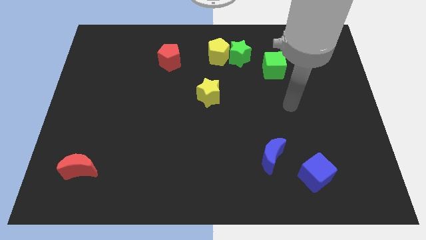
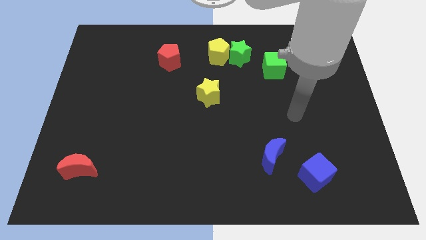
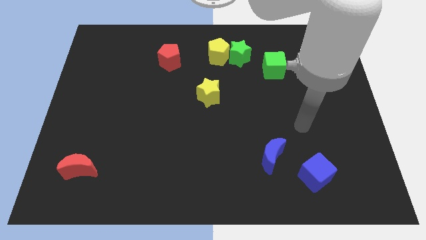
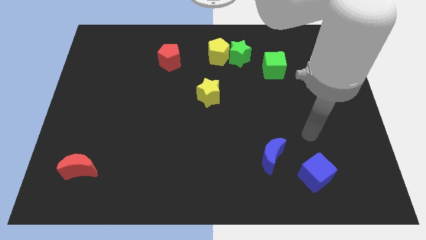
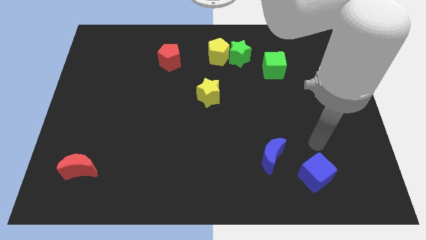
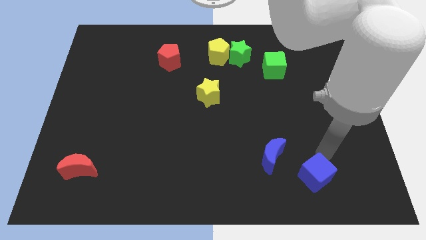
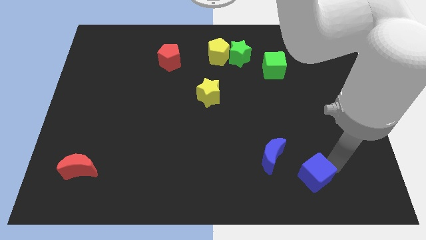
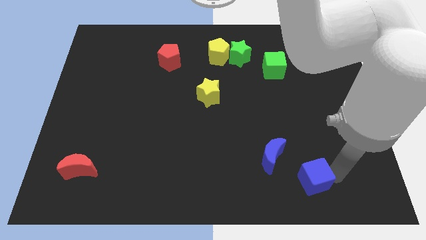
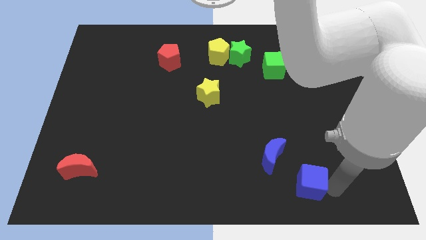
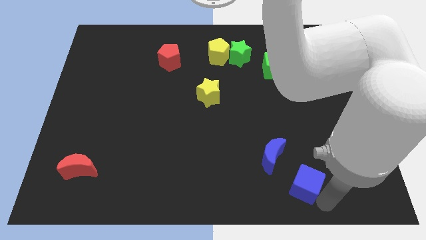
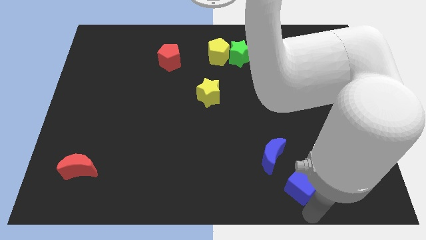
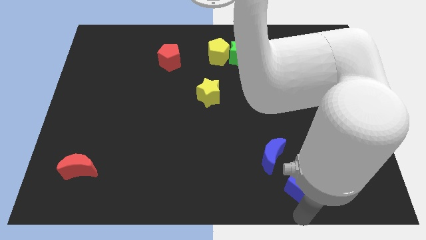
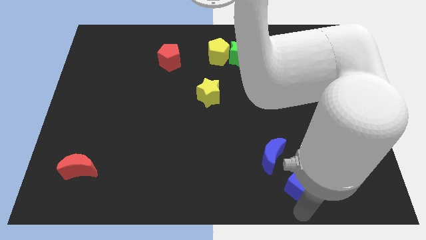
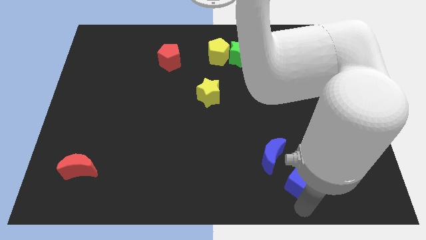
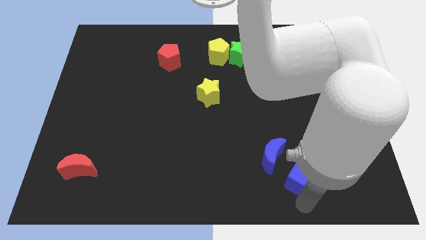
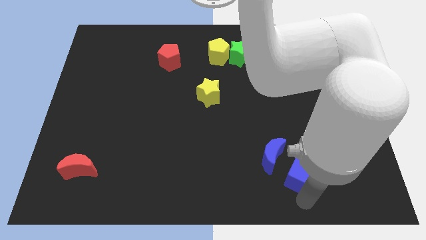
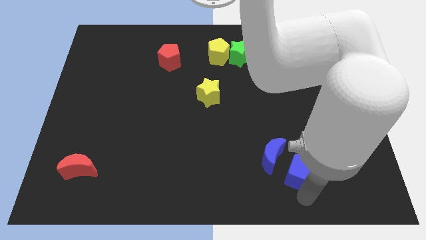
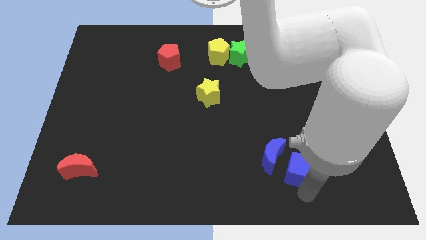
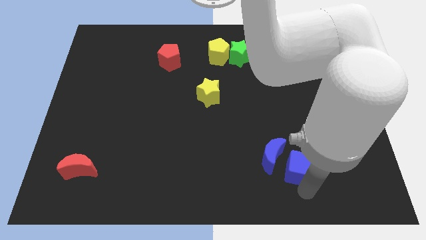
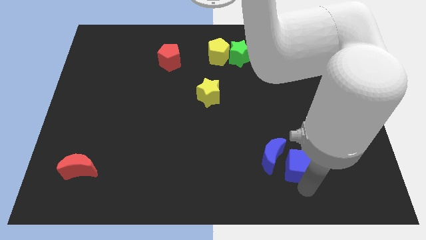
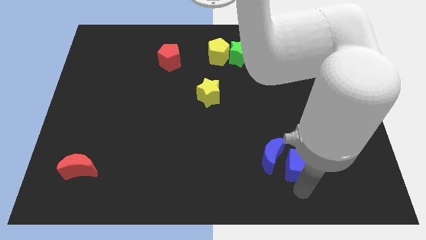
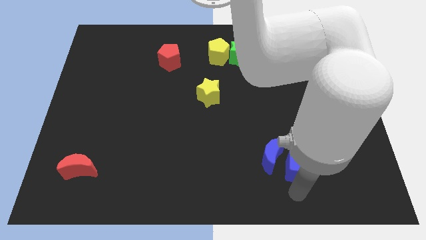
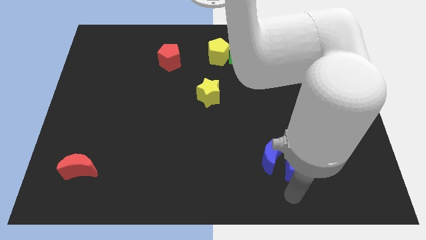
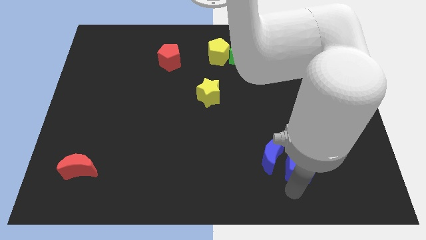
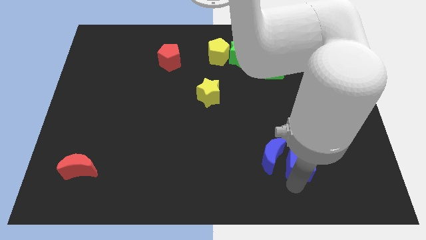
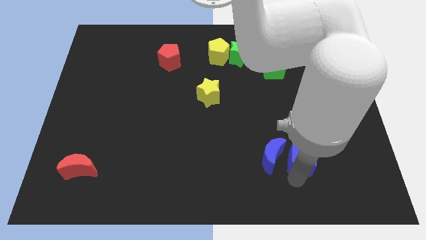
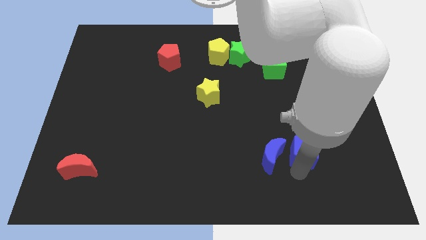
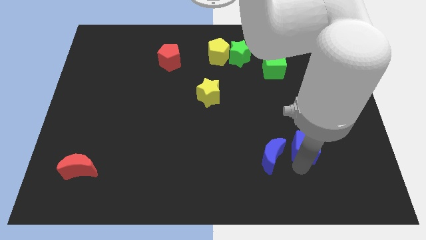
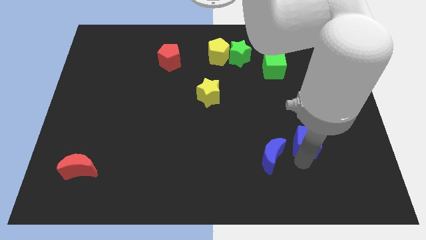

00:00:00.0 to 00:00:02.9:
push the blue cube upwards a bit

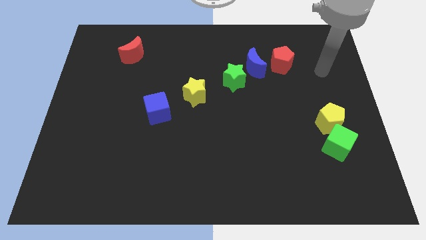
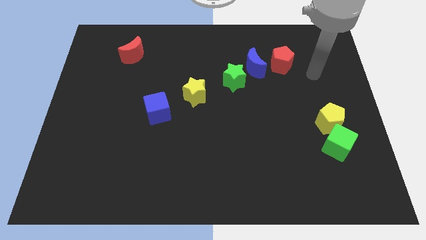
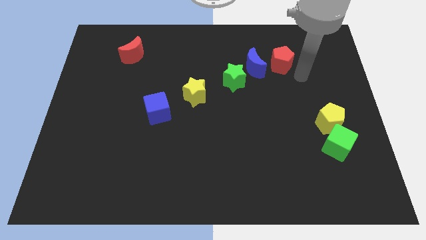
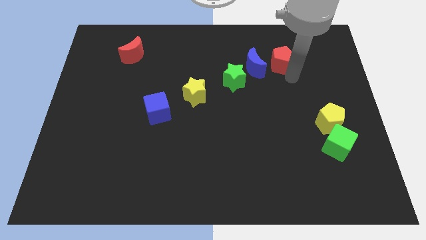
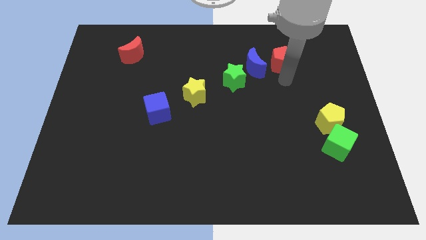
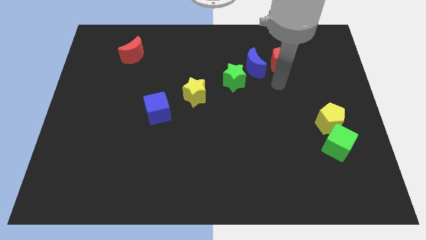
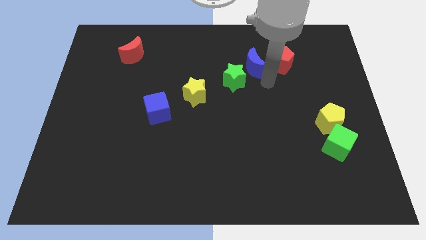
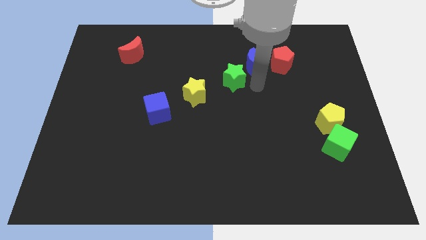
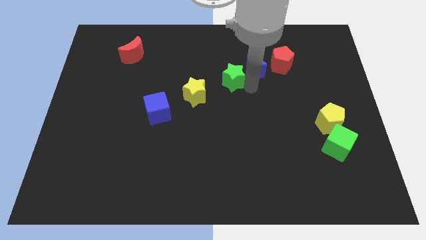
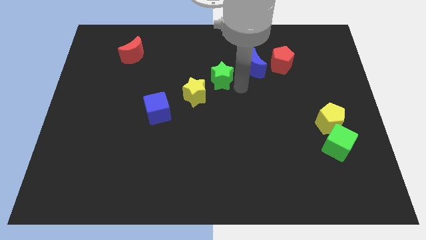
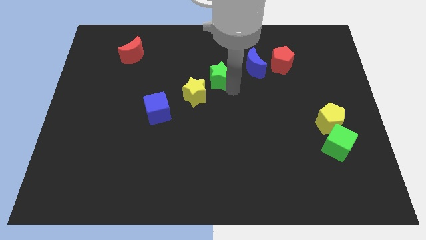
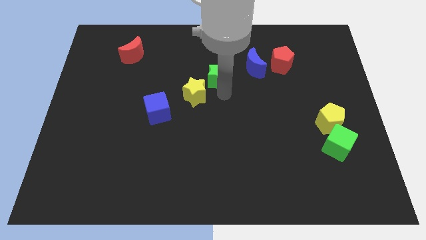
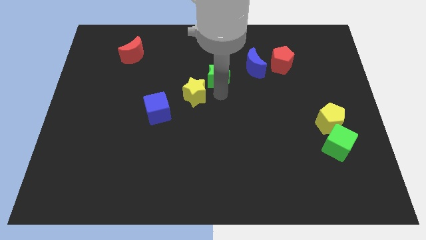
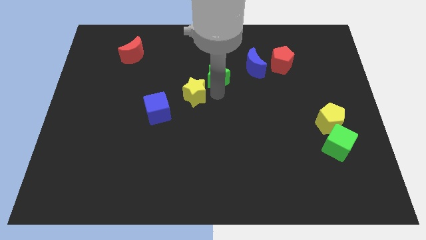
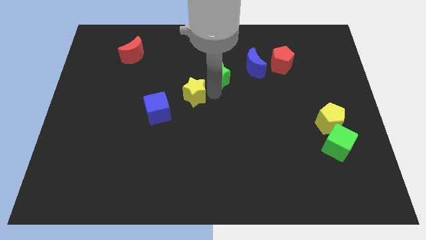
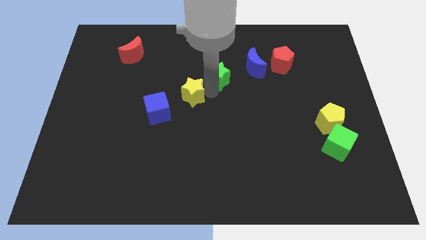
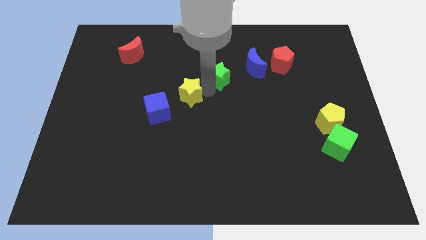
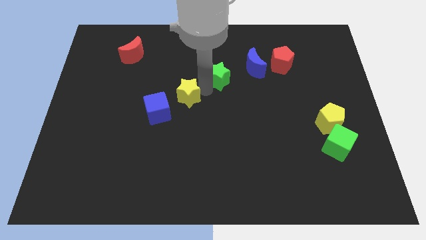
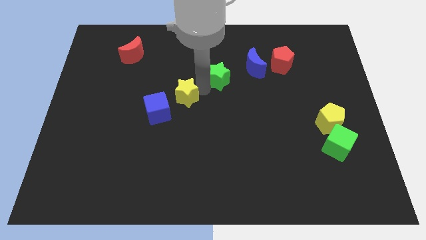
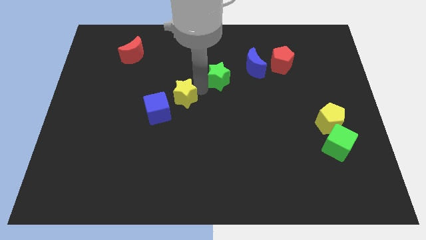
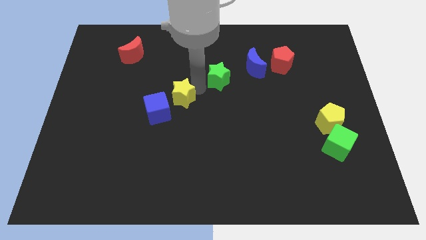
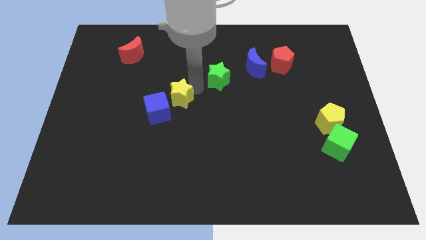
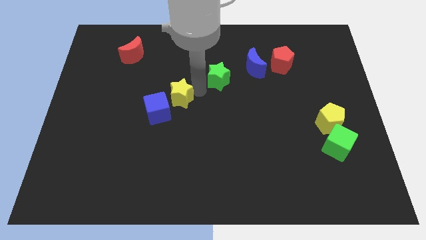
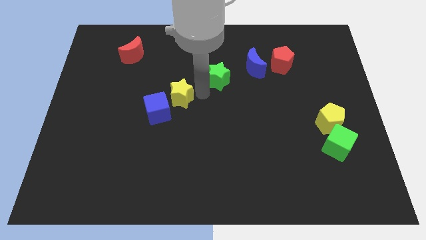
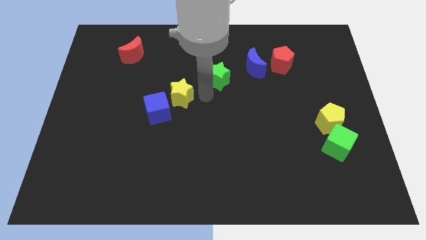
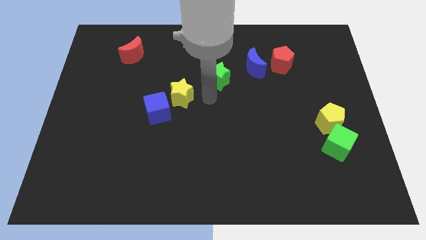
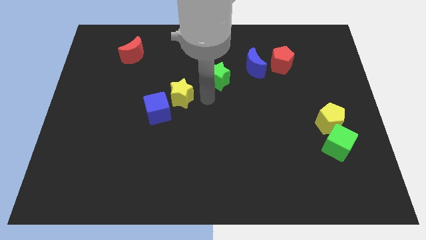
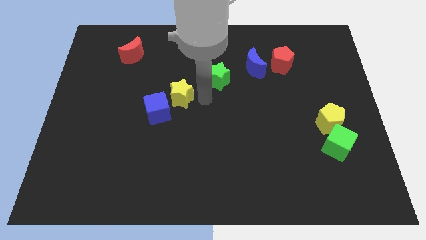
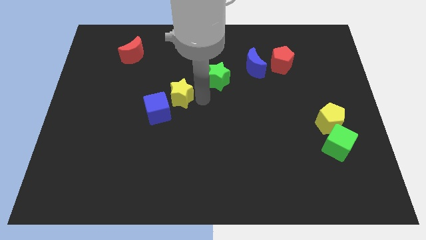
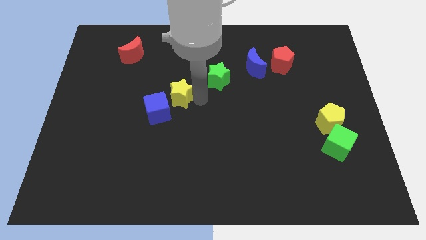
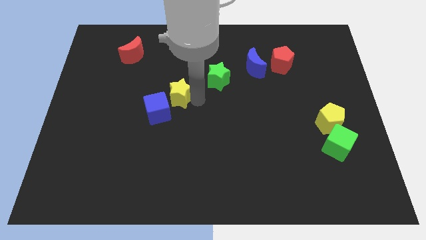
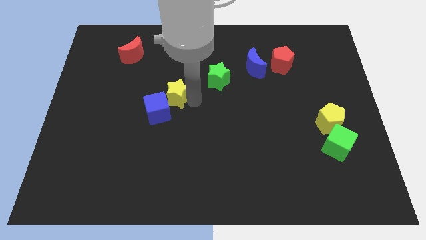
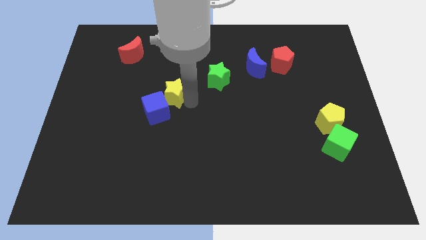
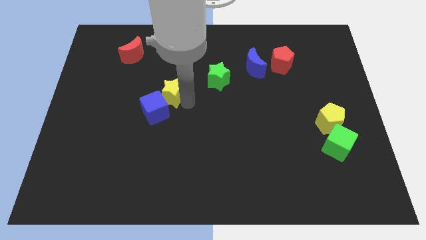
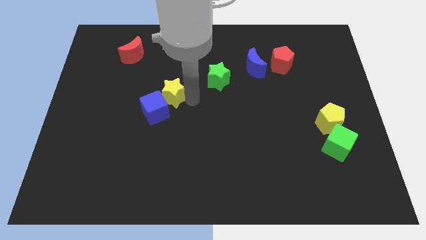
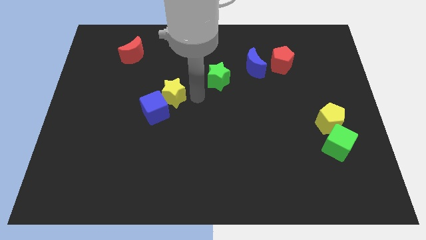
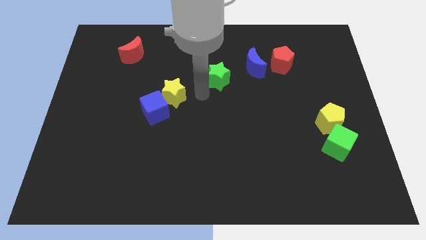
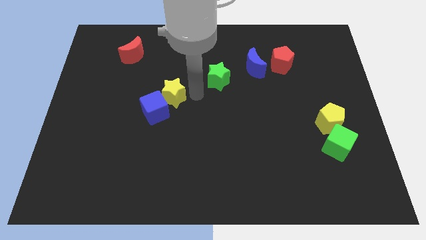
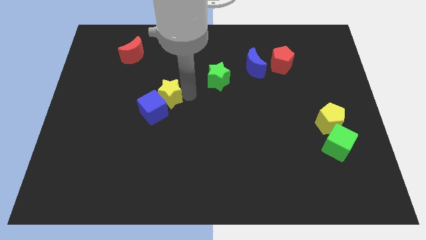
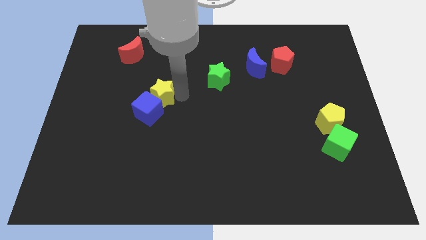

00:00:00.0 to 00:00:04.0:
move the yellow star somewhat left

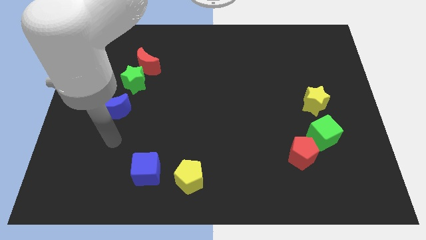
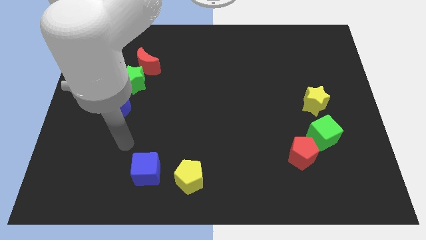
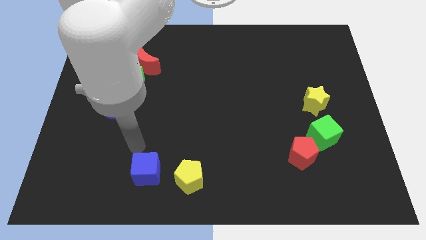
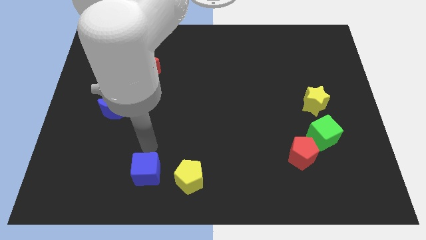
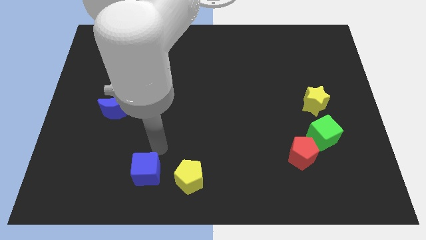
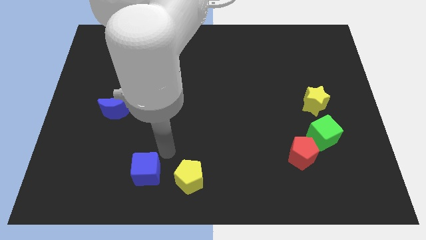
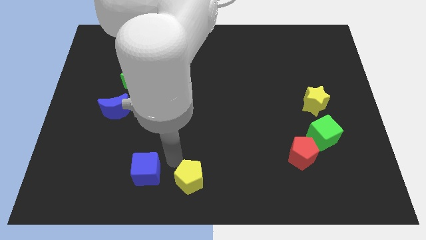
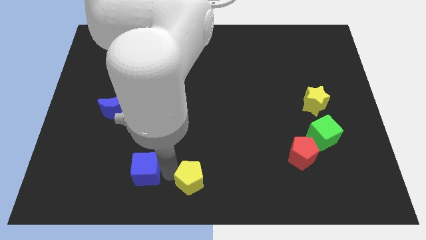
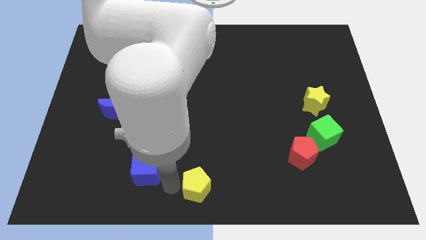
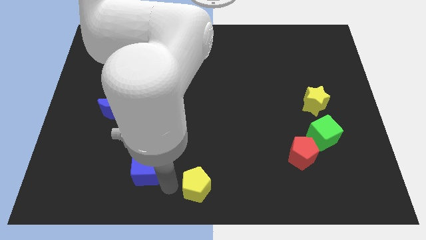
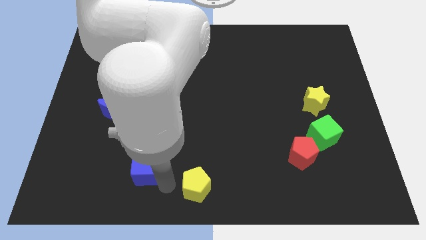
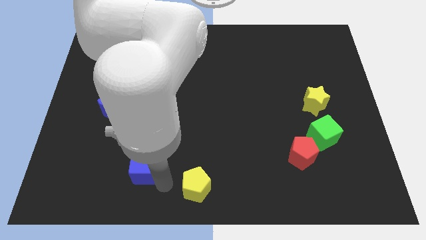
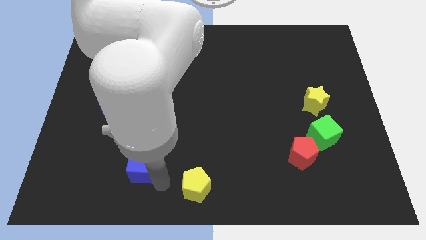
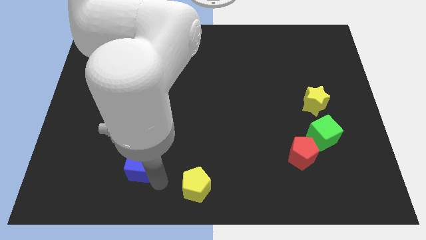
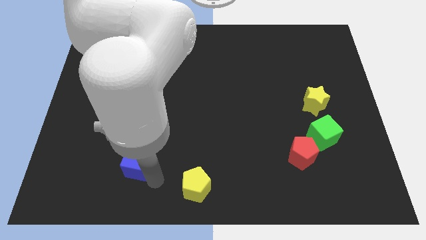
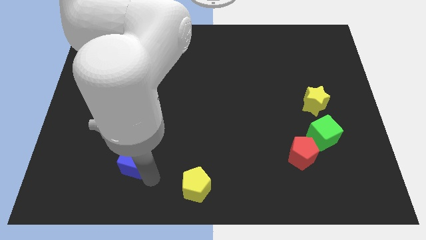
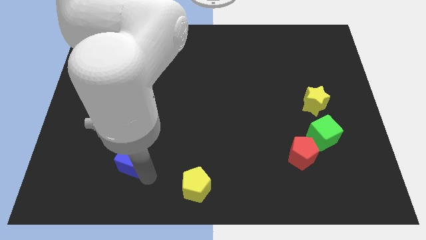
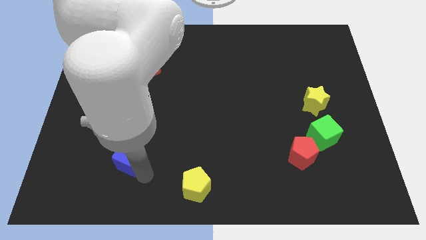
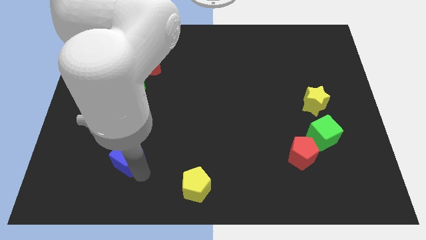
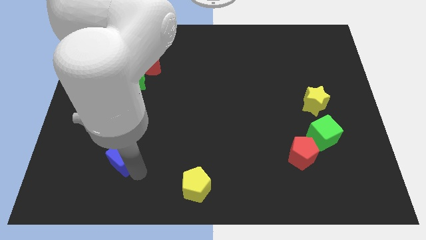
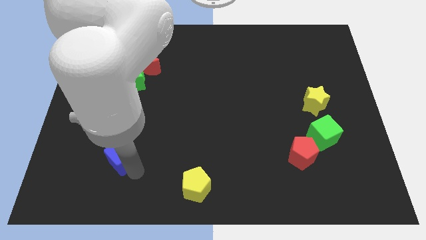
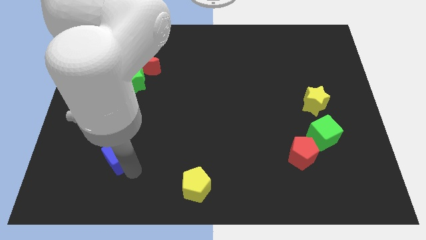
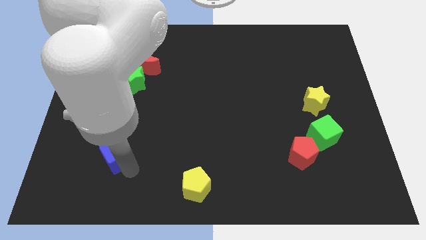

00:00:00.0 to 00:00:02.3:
push the blue cube upwards and then to the left slightly
